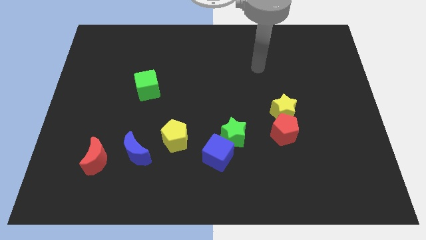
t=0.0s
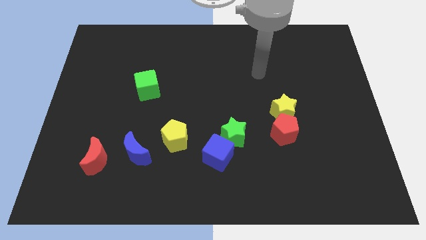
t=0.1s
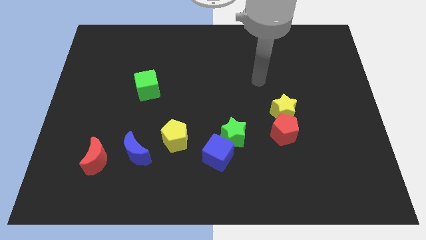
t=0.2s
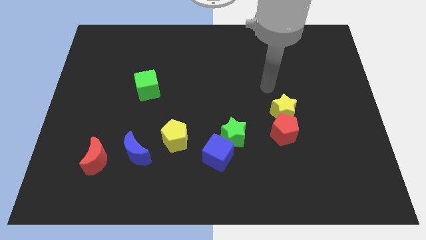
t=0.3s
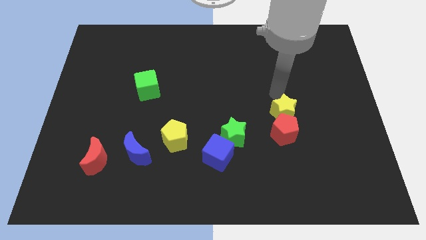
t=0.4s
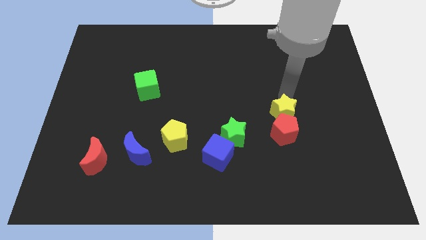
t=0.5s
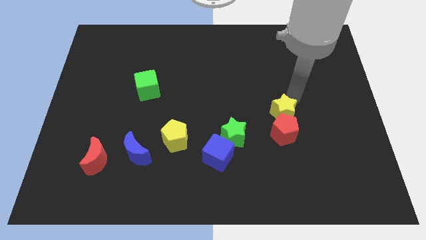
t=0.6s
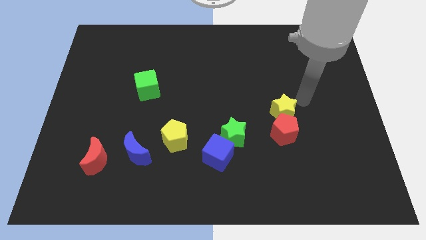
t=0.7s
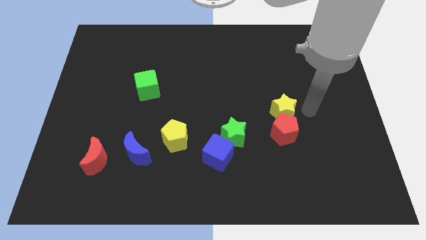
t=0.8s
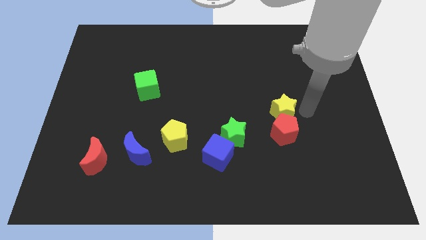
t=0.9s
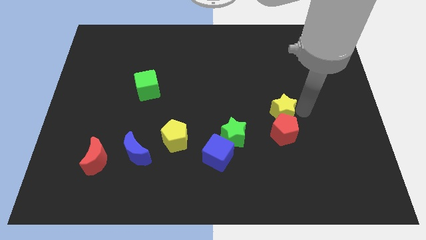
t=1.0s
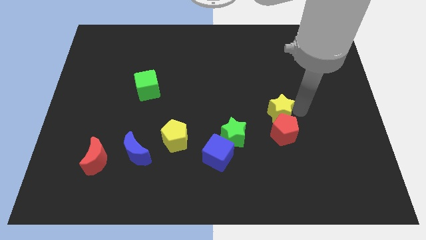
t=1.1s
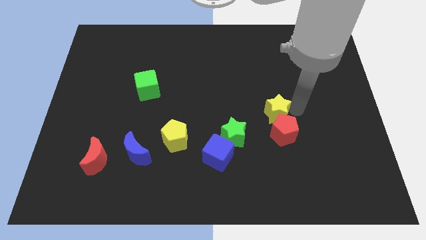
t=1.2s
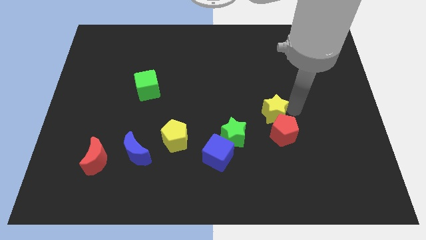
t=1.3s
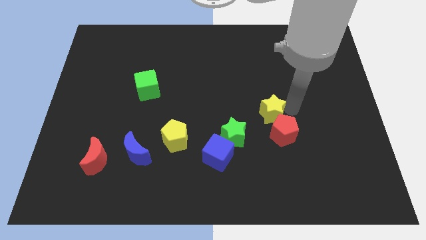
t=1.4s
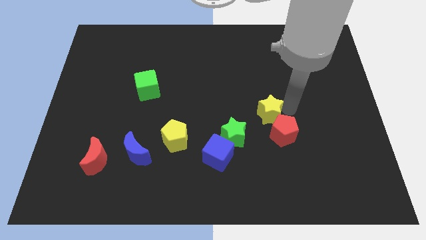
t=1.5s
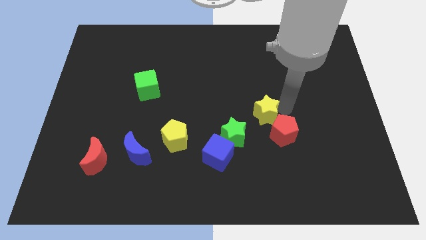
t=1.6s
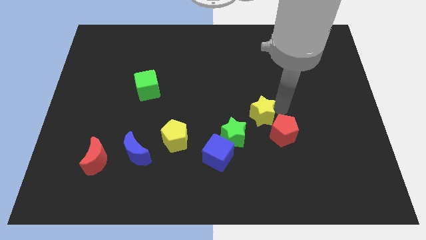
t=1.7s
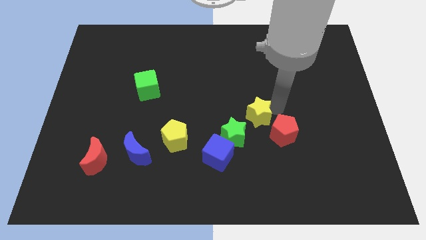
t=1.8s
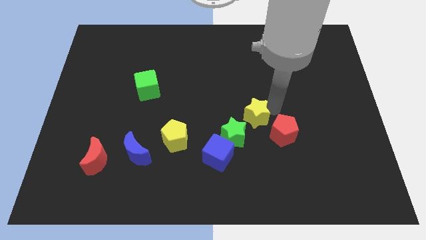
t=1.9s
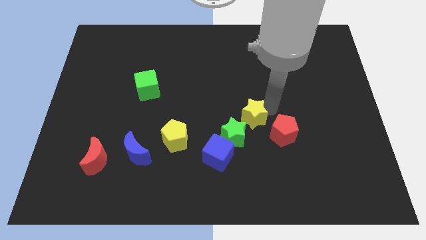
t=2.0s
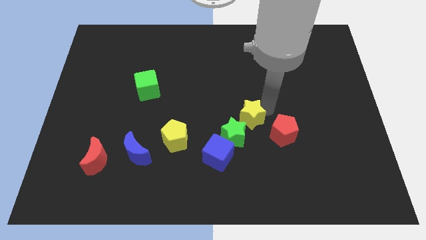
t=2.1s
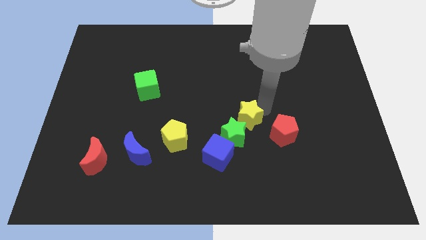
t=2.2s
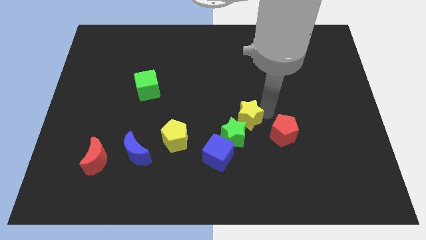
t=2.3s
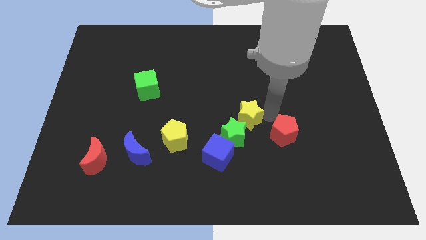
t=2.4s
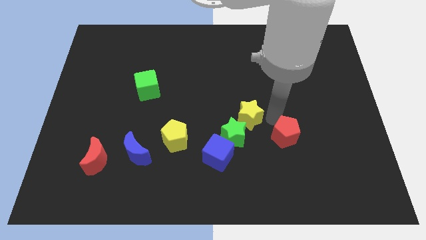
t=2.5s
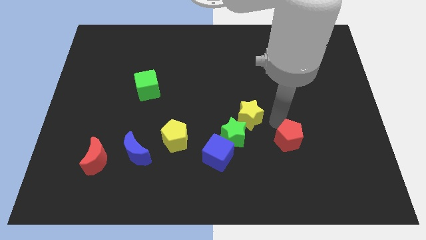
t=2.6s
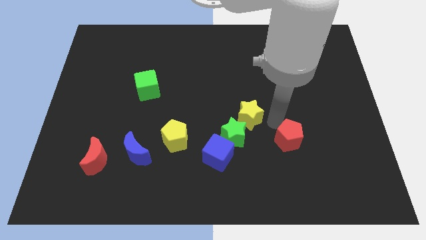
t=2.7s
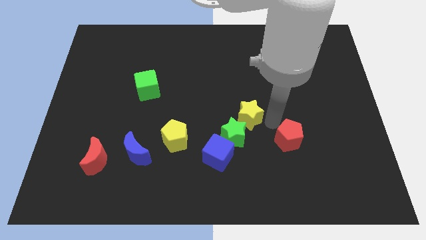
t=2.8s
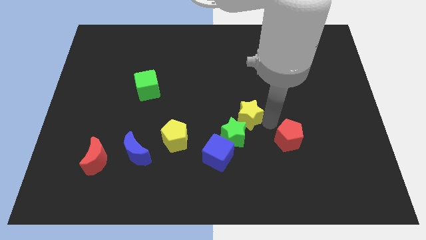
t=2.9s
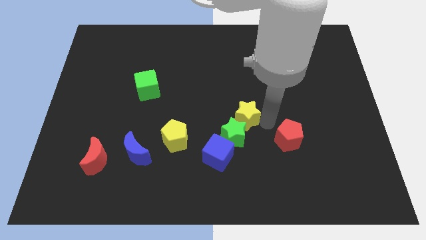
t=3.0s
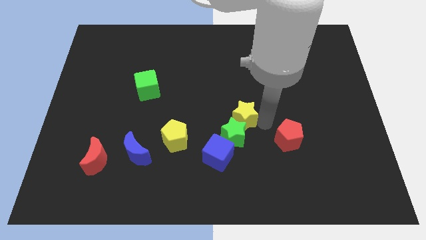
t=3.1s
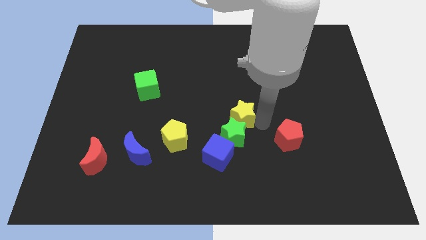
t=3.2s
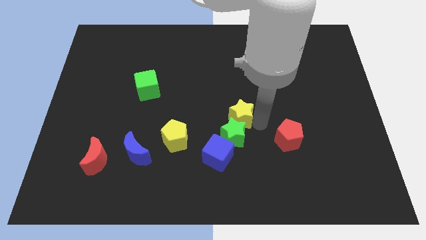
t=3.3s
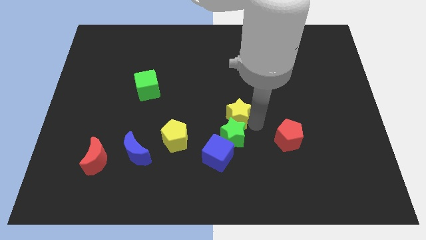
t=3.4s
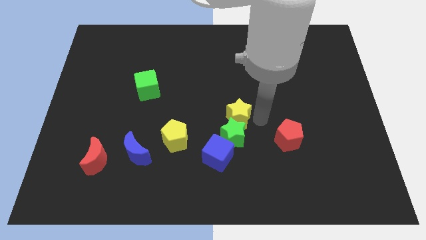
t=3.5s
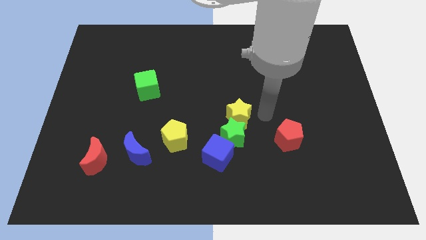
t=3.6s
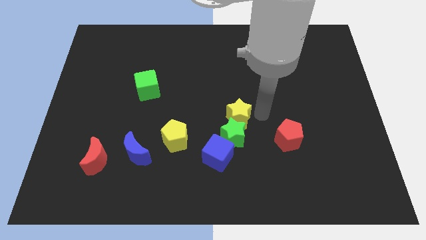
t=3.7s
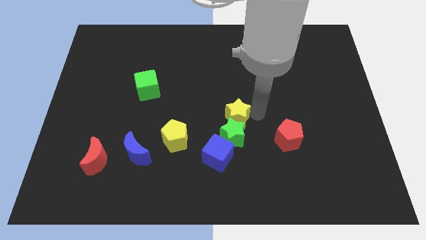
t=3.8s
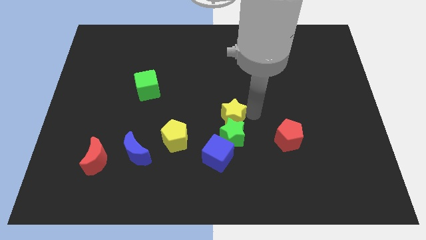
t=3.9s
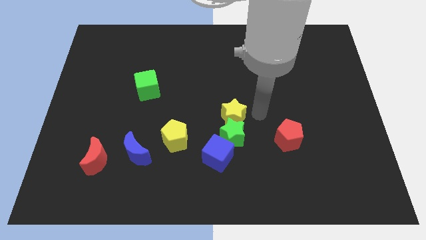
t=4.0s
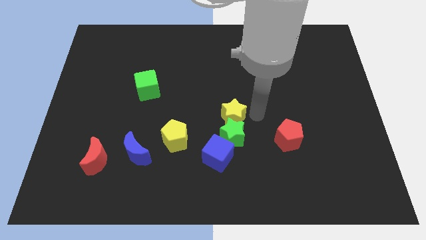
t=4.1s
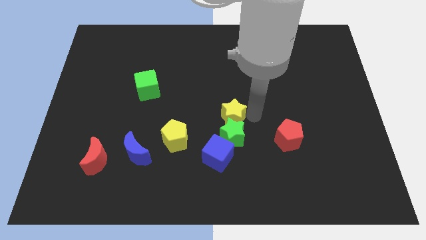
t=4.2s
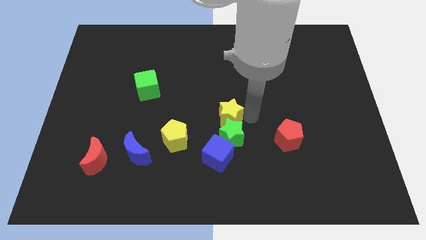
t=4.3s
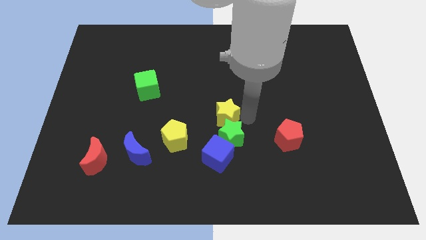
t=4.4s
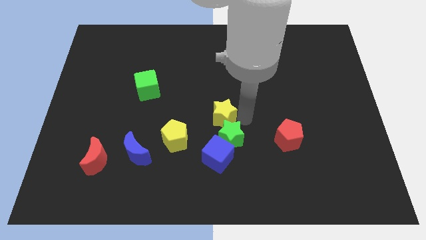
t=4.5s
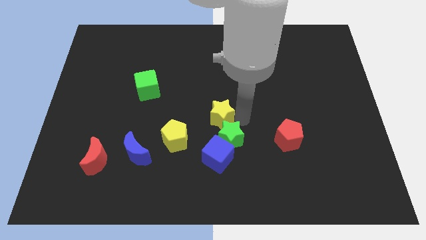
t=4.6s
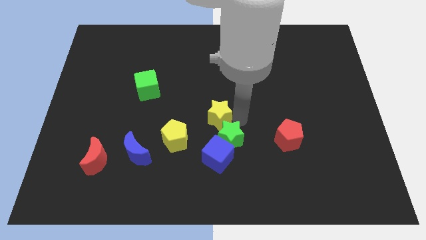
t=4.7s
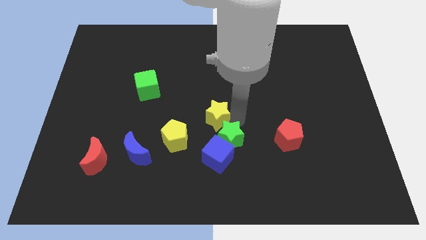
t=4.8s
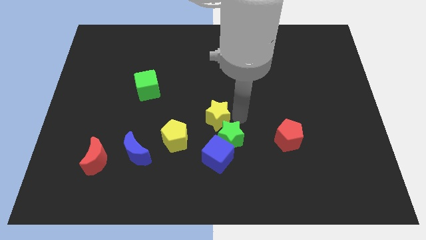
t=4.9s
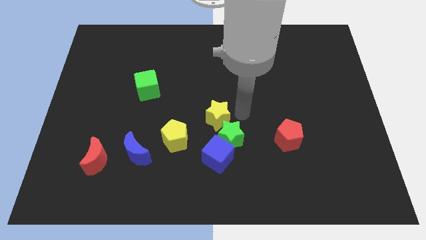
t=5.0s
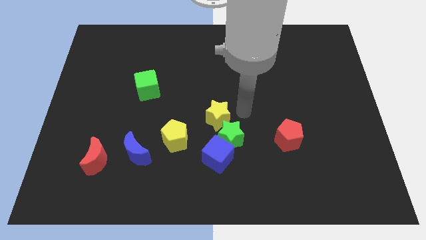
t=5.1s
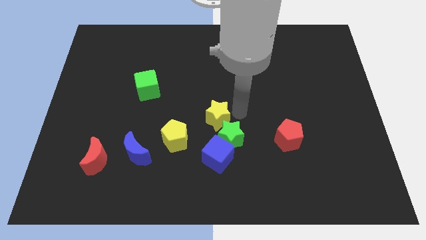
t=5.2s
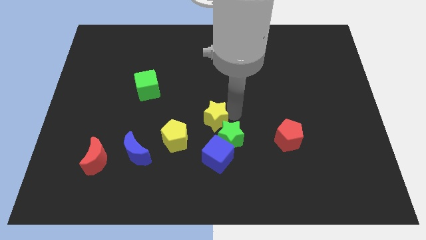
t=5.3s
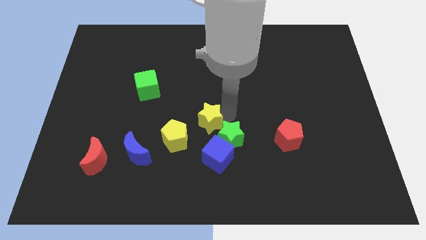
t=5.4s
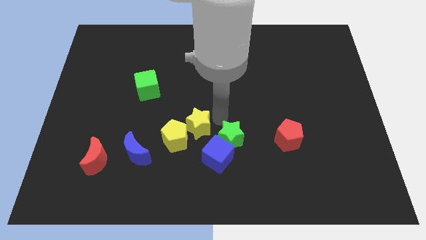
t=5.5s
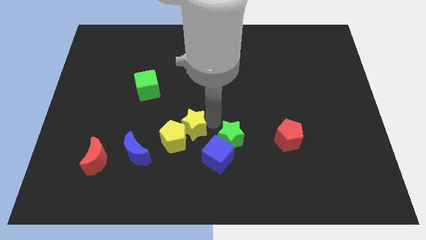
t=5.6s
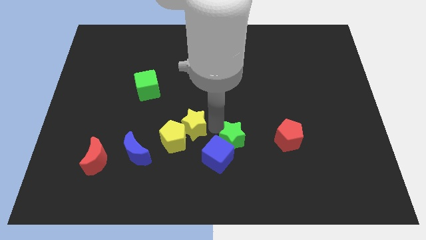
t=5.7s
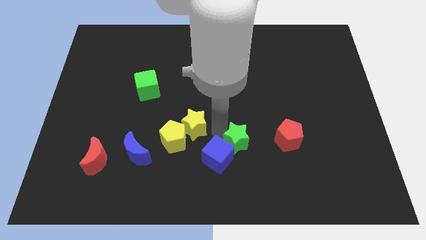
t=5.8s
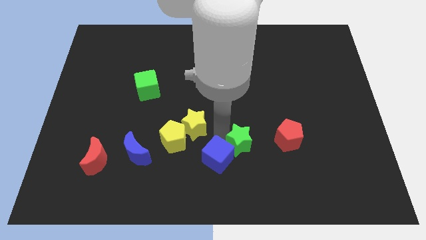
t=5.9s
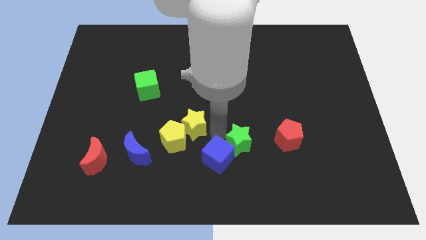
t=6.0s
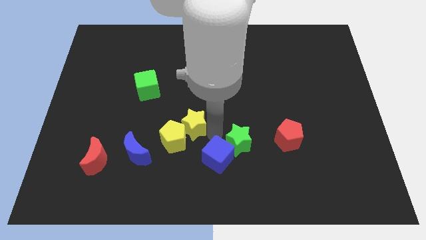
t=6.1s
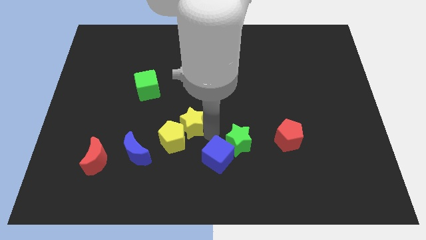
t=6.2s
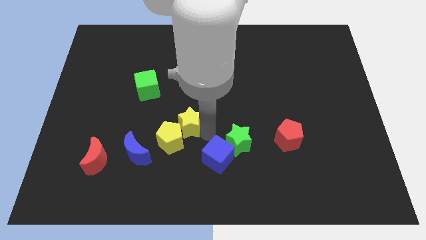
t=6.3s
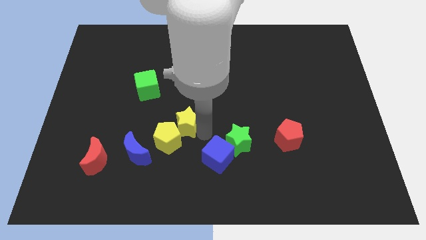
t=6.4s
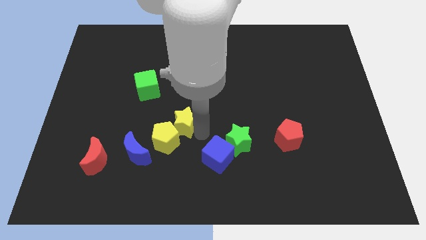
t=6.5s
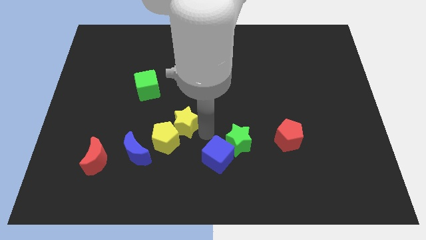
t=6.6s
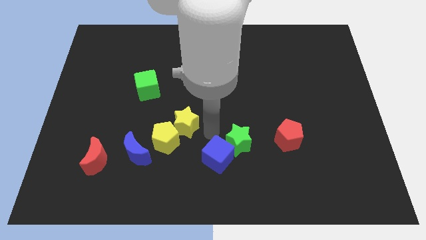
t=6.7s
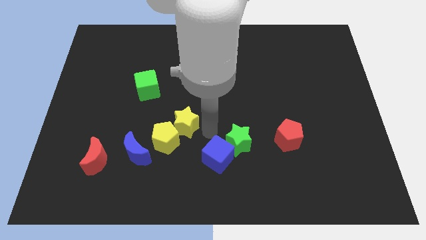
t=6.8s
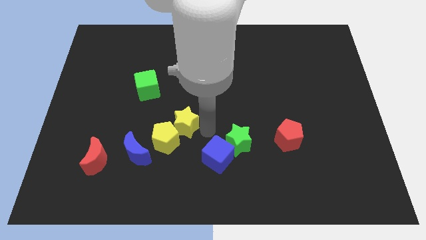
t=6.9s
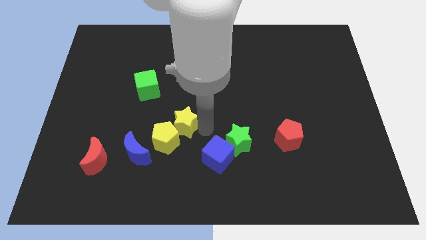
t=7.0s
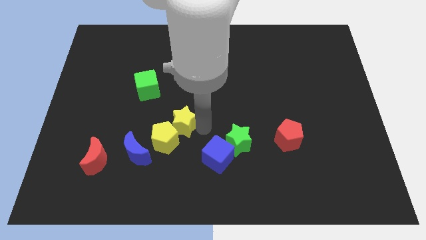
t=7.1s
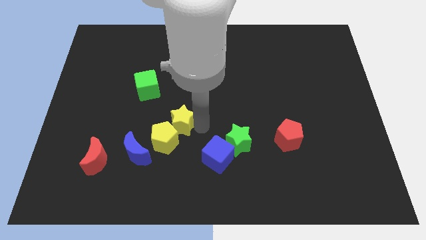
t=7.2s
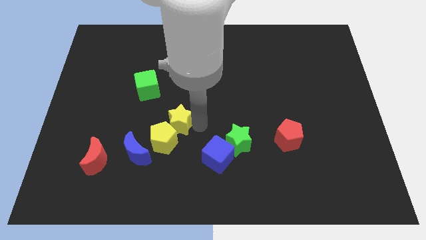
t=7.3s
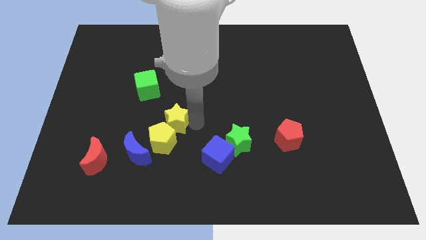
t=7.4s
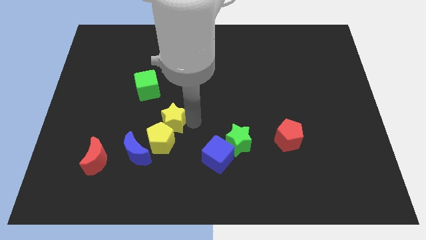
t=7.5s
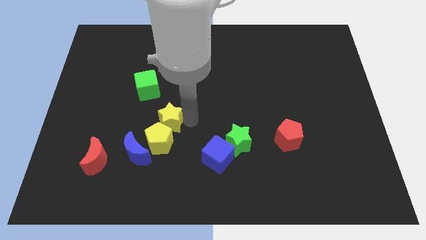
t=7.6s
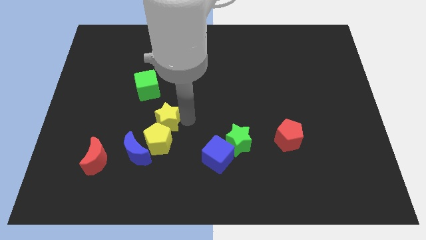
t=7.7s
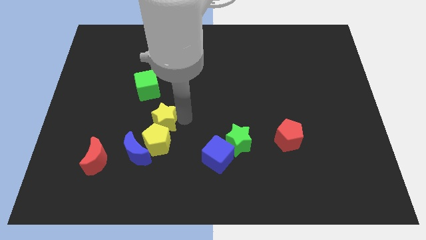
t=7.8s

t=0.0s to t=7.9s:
slide the yellow star to the bottom of the green cube
